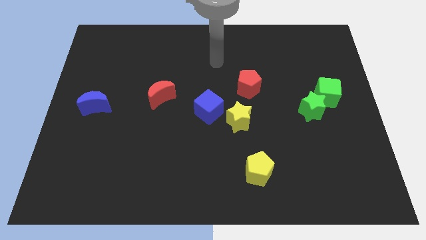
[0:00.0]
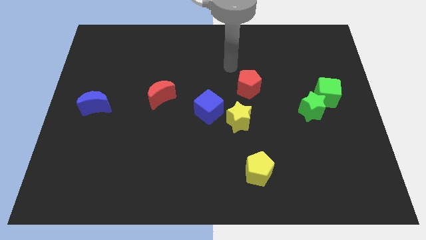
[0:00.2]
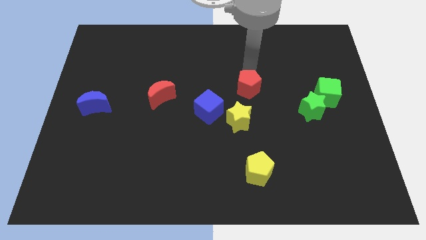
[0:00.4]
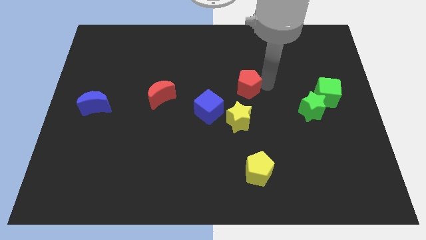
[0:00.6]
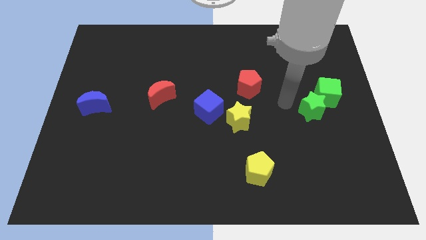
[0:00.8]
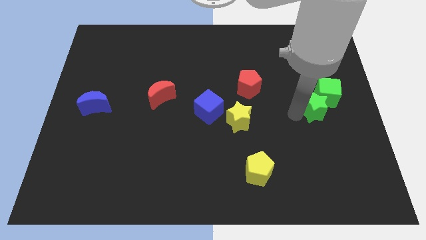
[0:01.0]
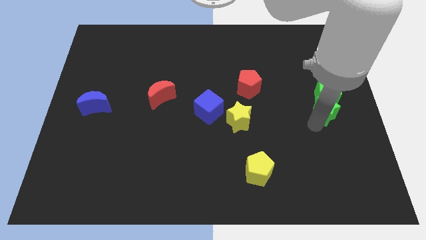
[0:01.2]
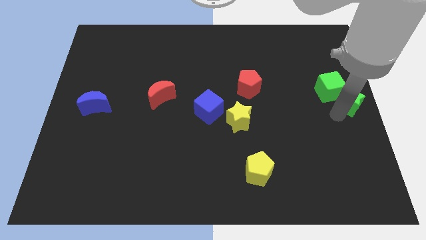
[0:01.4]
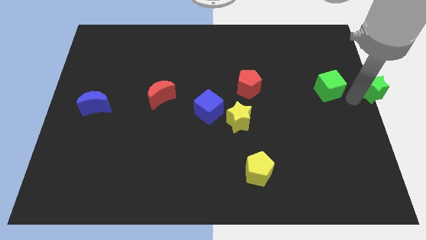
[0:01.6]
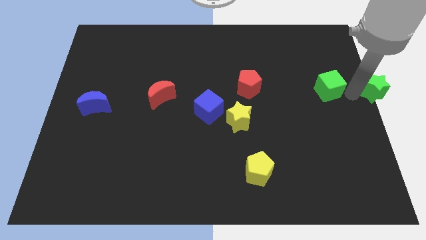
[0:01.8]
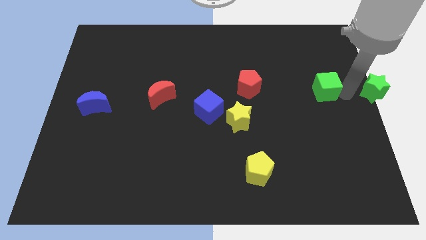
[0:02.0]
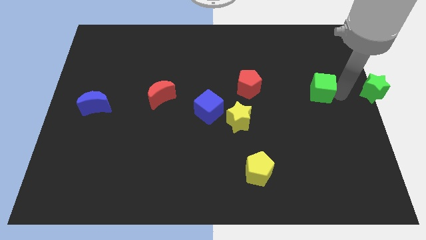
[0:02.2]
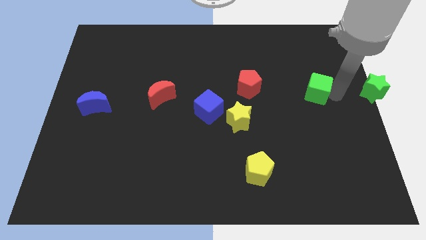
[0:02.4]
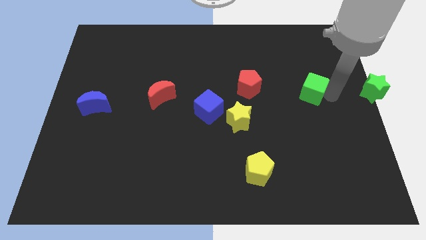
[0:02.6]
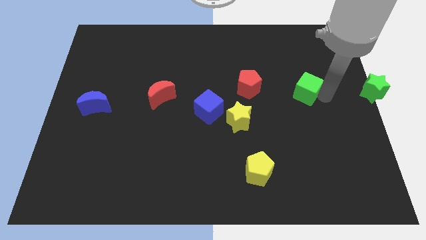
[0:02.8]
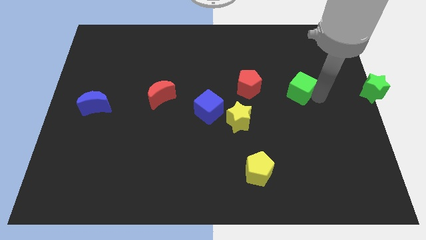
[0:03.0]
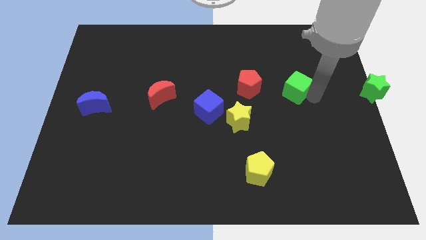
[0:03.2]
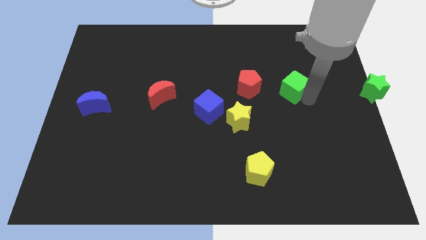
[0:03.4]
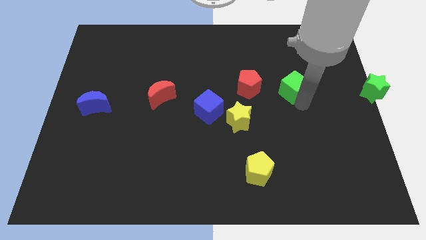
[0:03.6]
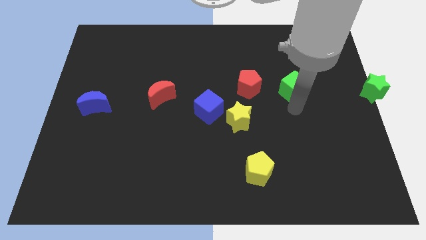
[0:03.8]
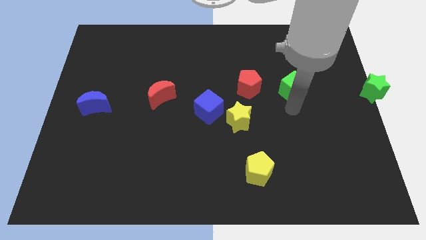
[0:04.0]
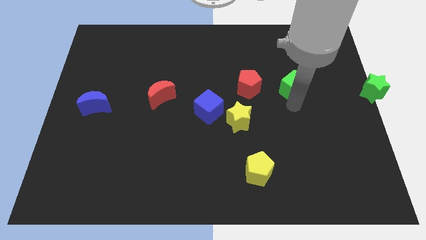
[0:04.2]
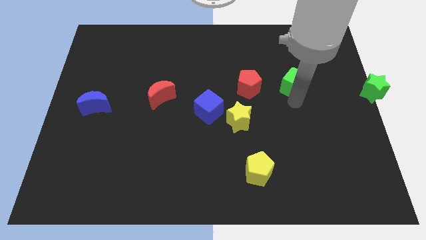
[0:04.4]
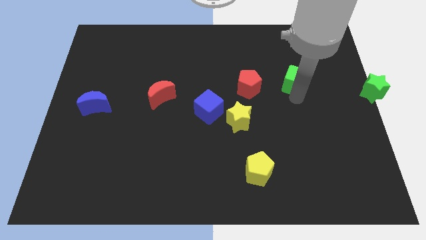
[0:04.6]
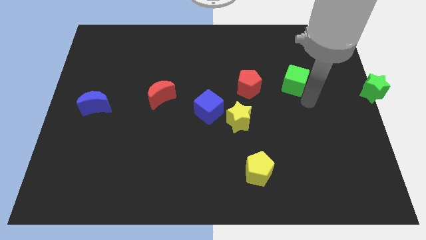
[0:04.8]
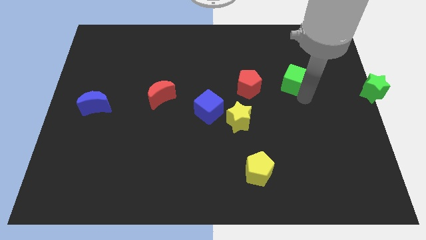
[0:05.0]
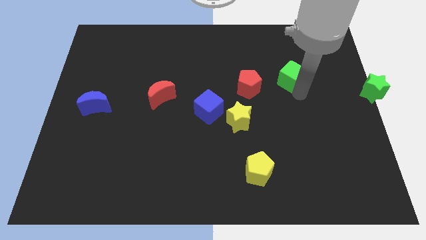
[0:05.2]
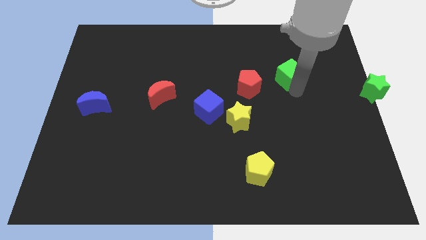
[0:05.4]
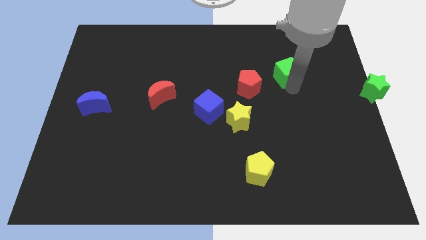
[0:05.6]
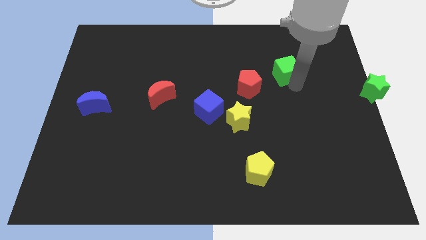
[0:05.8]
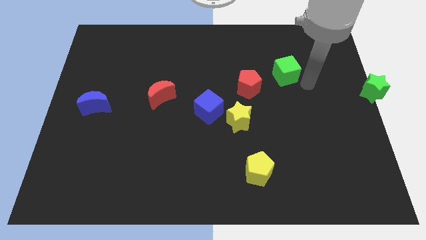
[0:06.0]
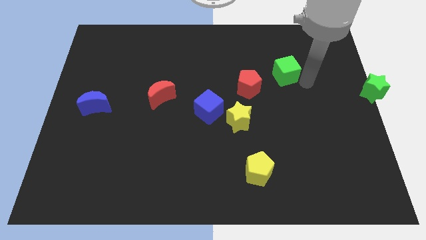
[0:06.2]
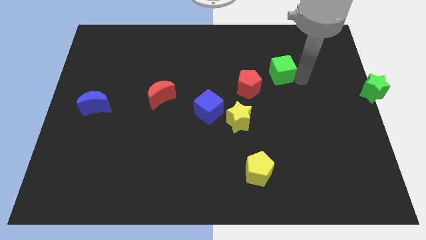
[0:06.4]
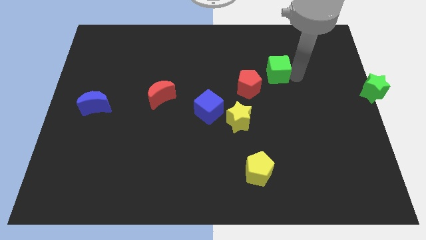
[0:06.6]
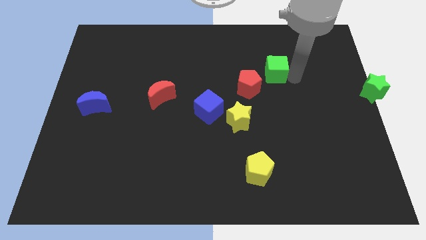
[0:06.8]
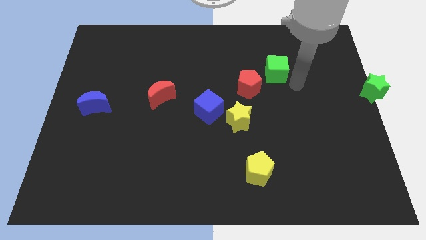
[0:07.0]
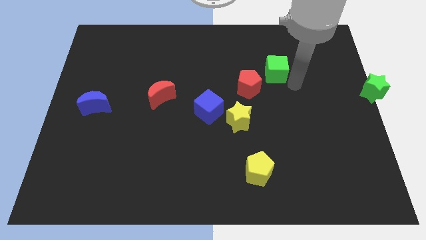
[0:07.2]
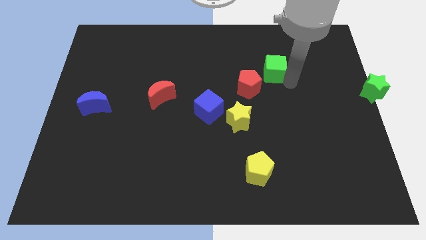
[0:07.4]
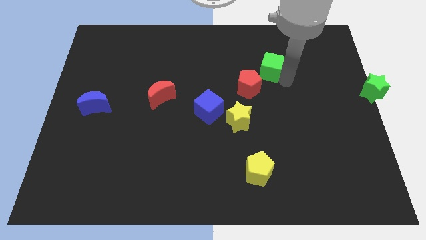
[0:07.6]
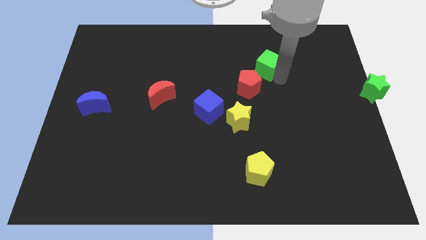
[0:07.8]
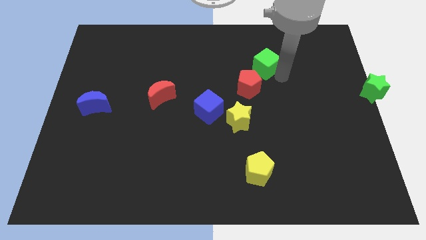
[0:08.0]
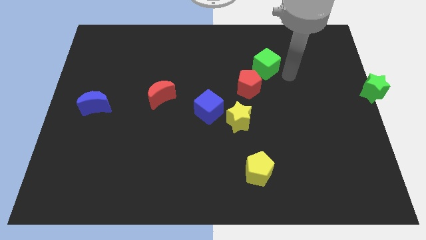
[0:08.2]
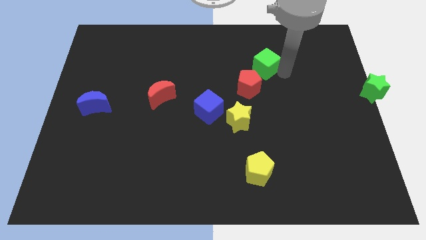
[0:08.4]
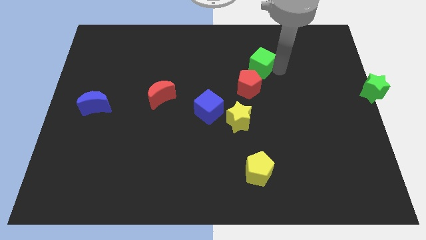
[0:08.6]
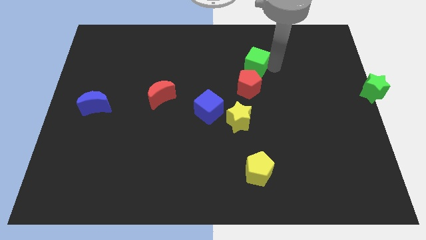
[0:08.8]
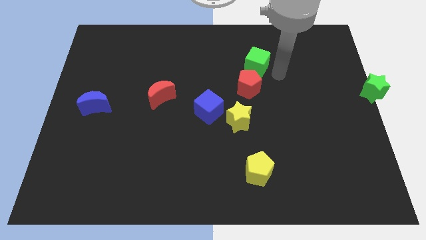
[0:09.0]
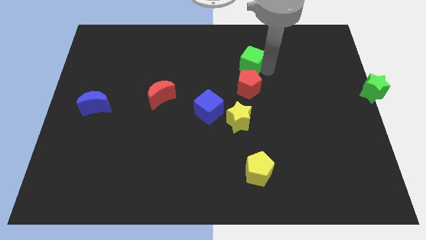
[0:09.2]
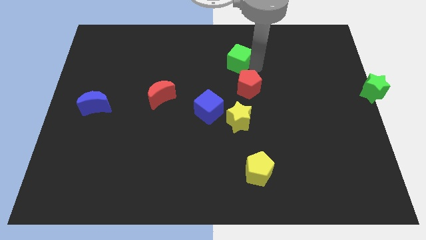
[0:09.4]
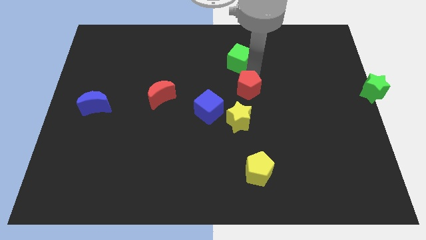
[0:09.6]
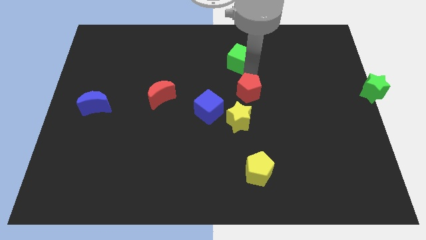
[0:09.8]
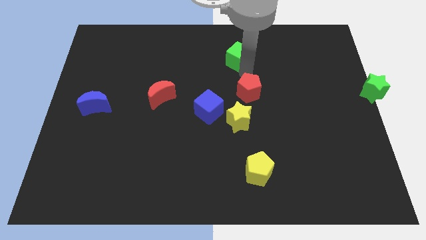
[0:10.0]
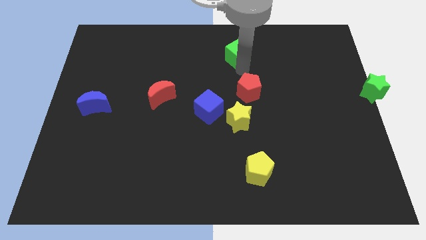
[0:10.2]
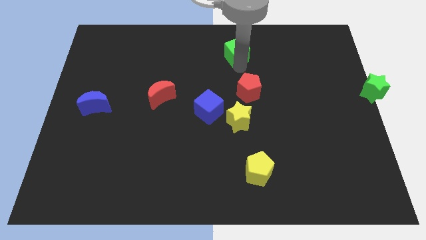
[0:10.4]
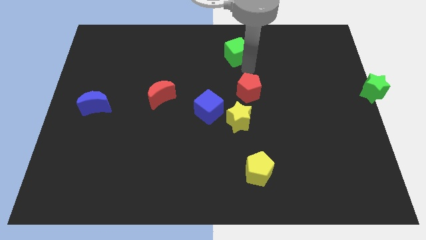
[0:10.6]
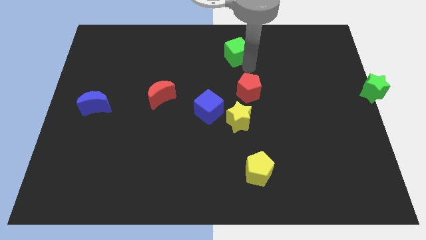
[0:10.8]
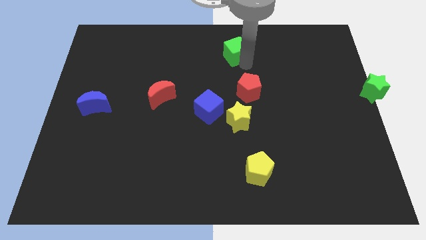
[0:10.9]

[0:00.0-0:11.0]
slide the green cube to the towards your base
